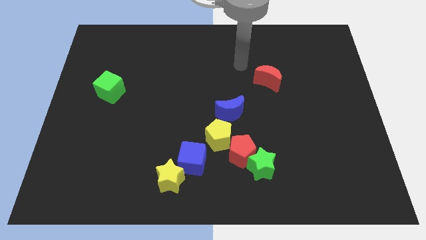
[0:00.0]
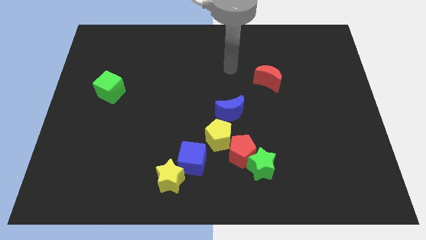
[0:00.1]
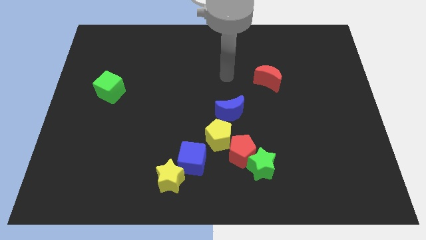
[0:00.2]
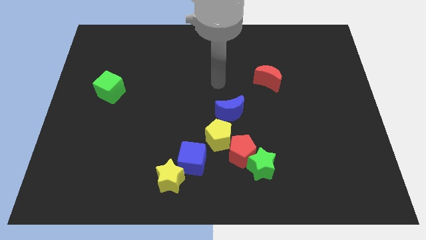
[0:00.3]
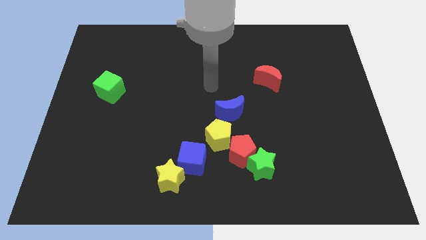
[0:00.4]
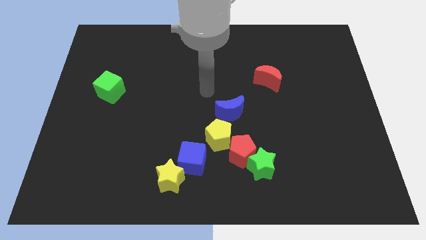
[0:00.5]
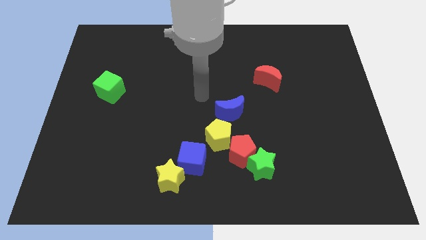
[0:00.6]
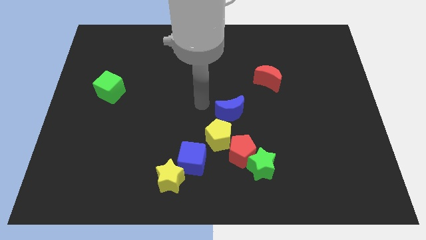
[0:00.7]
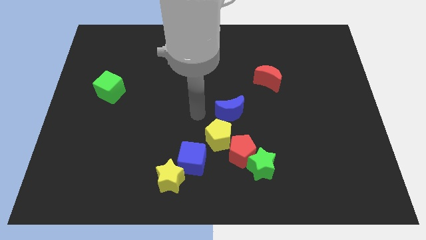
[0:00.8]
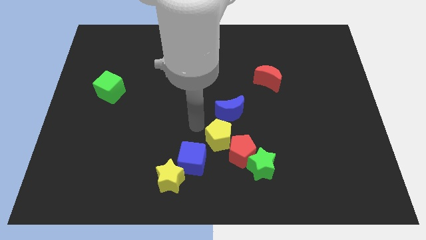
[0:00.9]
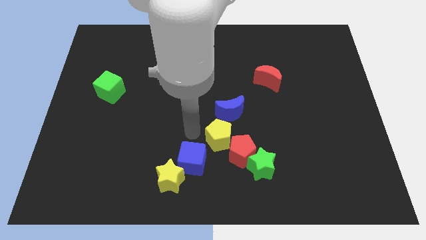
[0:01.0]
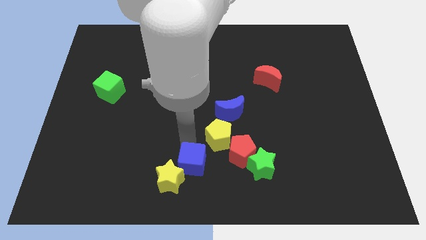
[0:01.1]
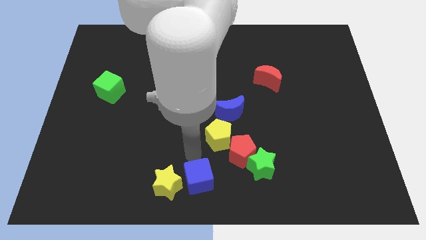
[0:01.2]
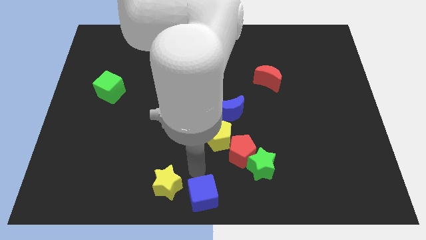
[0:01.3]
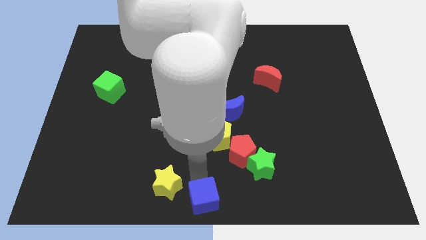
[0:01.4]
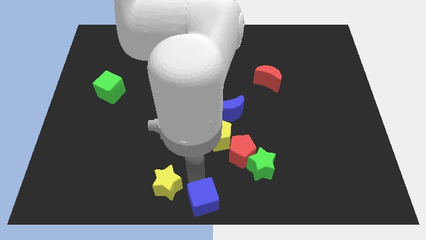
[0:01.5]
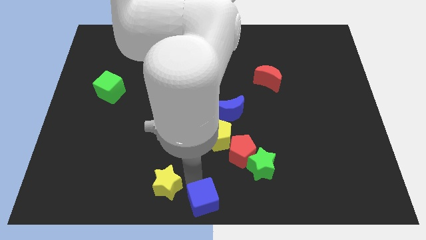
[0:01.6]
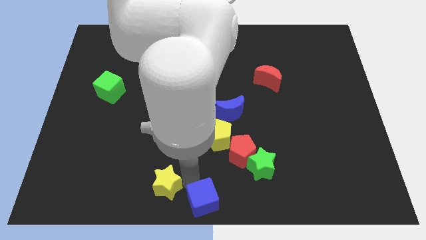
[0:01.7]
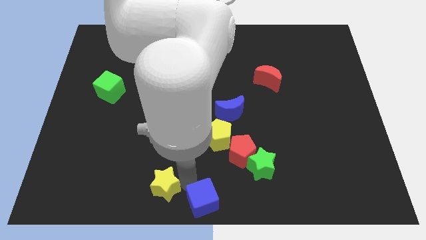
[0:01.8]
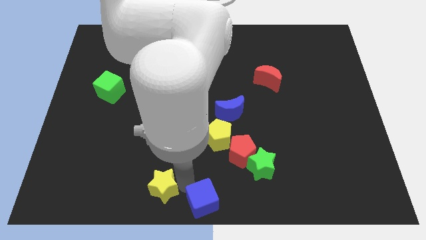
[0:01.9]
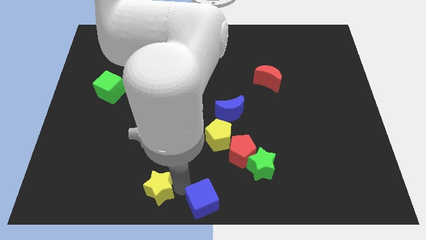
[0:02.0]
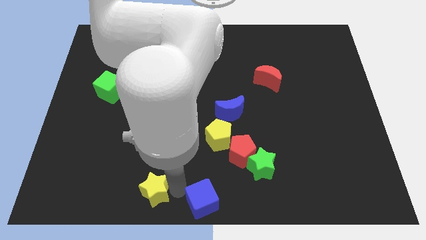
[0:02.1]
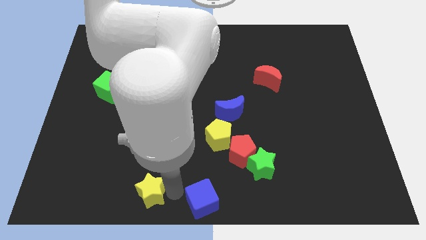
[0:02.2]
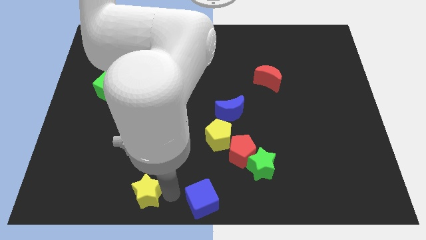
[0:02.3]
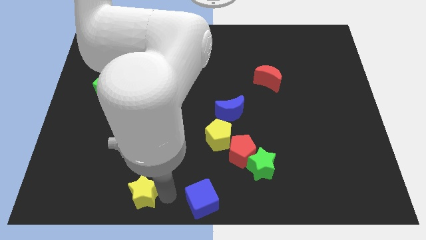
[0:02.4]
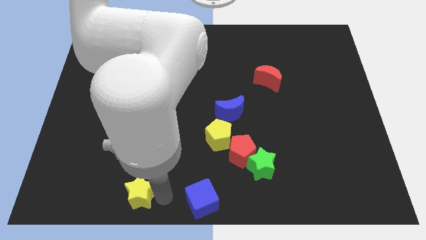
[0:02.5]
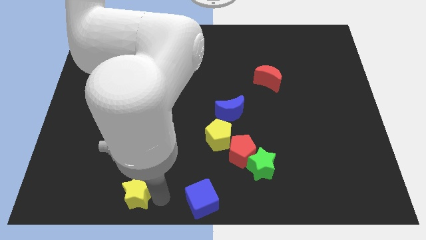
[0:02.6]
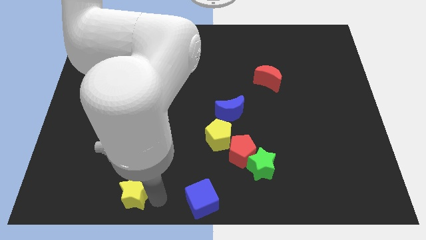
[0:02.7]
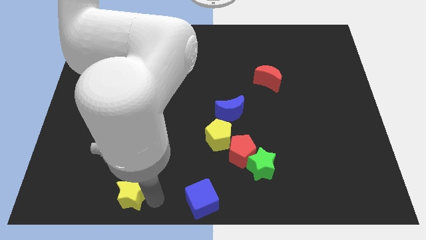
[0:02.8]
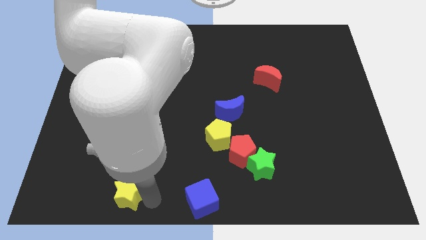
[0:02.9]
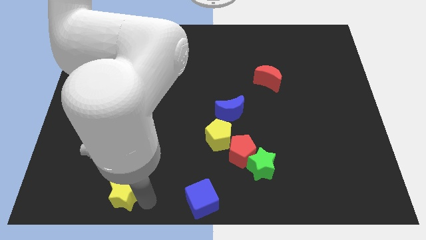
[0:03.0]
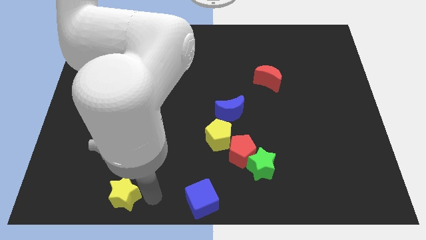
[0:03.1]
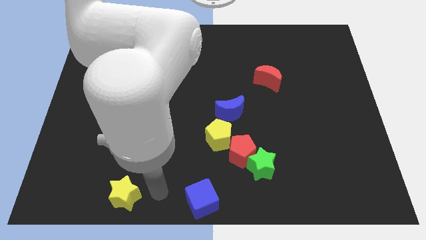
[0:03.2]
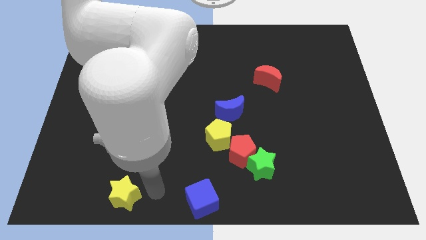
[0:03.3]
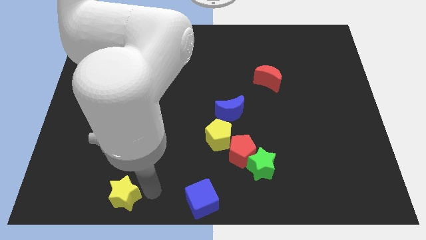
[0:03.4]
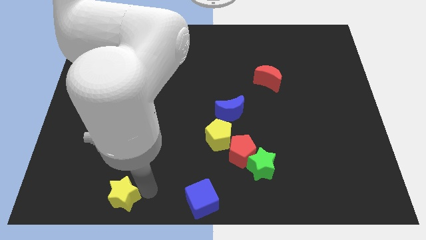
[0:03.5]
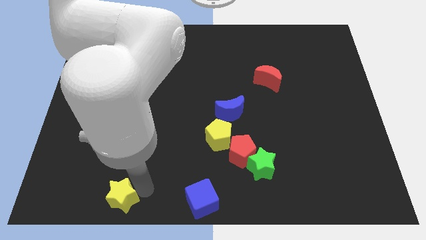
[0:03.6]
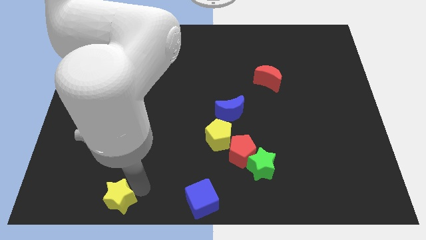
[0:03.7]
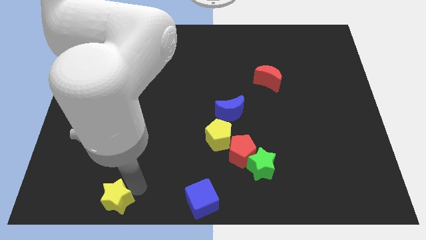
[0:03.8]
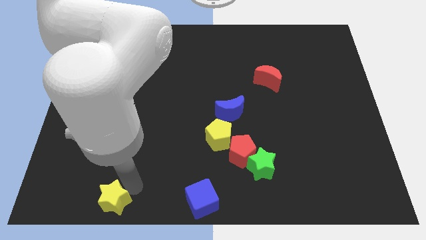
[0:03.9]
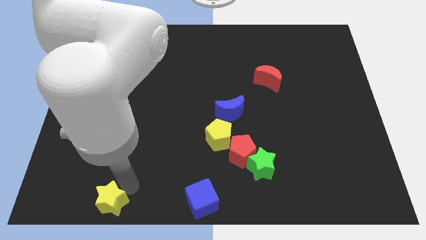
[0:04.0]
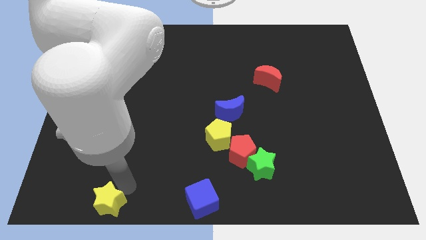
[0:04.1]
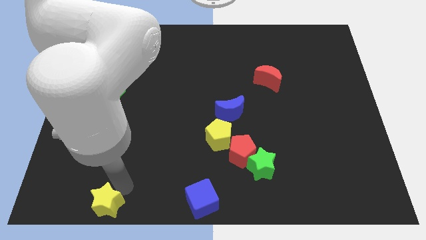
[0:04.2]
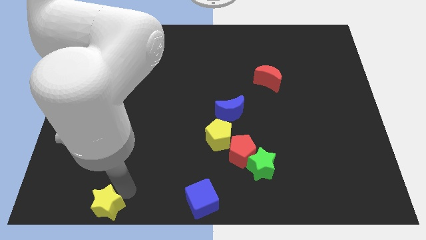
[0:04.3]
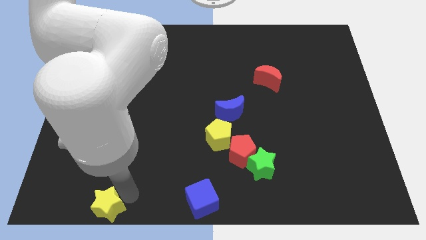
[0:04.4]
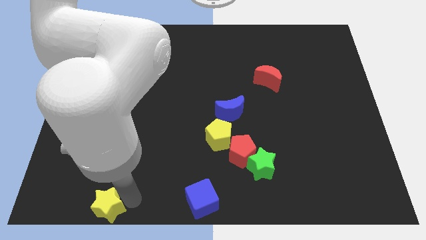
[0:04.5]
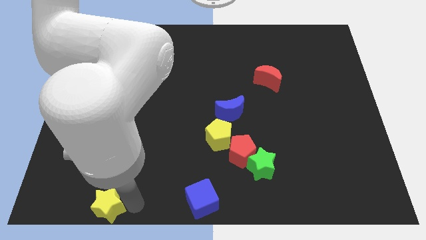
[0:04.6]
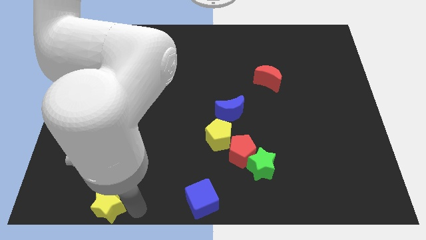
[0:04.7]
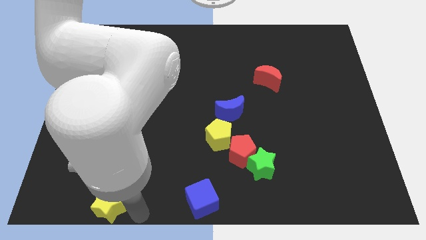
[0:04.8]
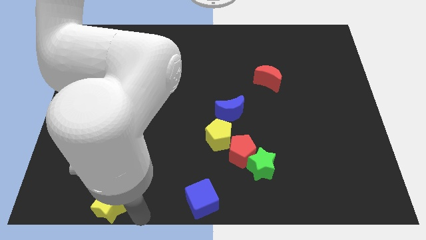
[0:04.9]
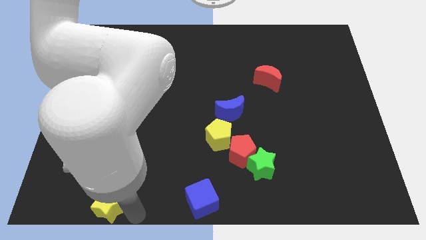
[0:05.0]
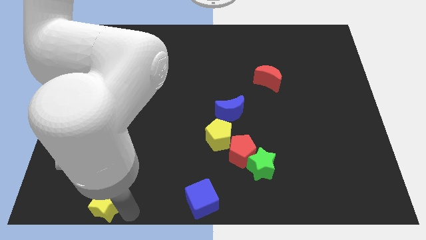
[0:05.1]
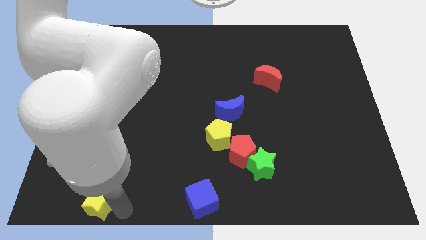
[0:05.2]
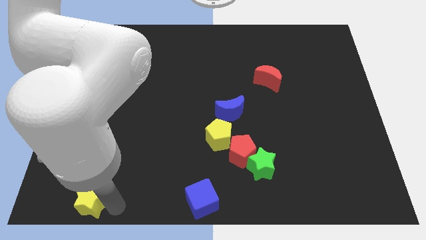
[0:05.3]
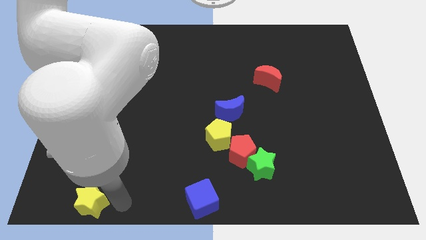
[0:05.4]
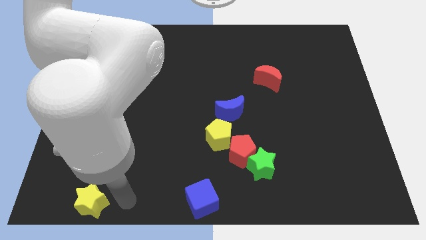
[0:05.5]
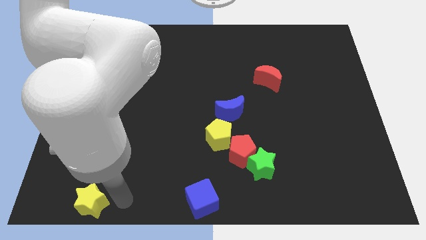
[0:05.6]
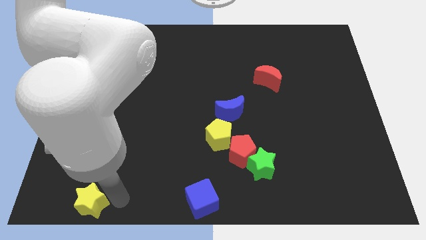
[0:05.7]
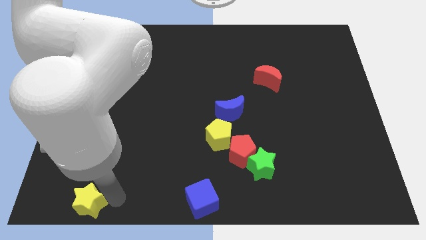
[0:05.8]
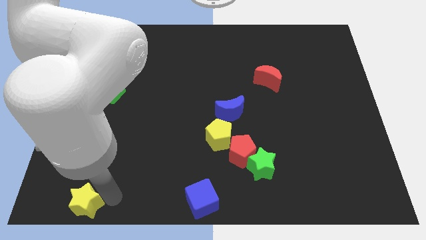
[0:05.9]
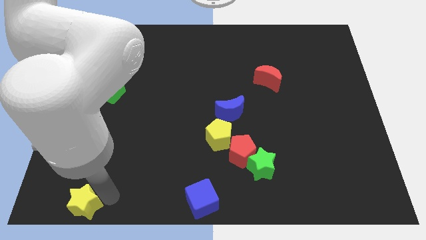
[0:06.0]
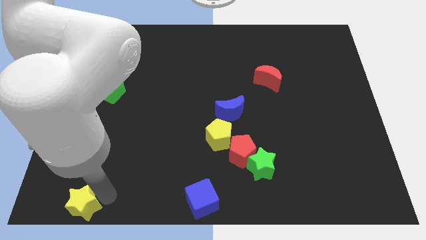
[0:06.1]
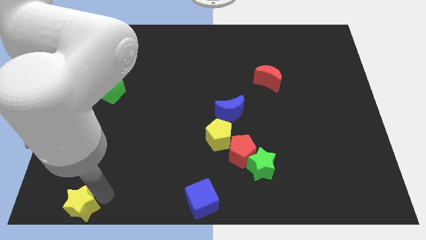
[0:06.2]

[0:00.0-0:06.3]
put the yellow star to the lower left corner
